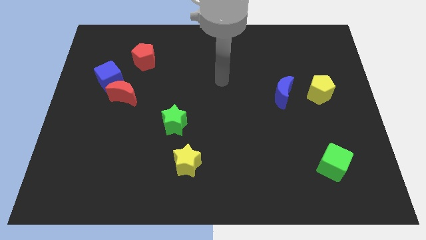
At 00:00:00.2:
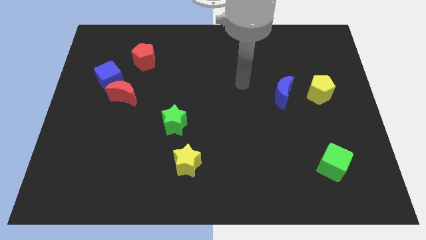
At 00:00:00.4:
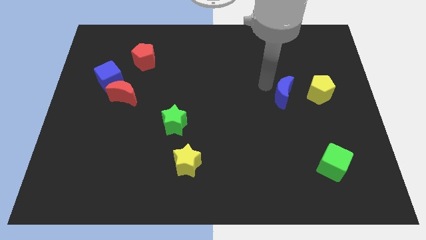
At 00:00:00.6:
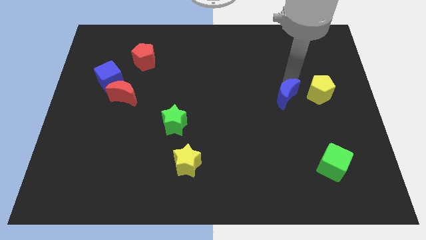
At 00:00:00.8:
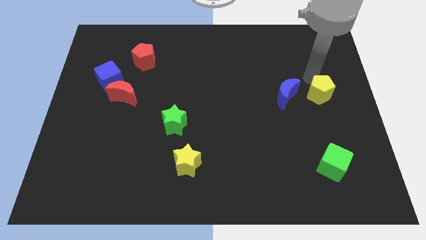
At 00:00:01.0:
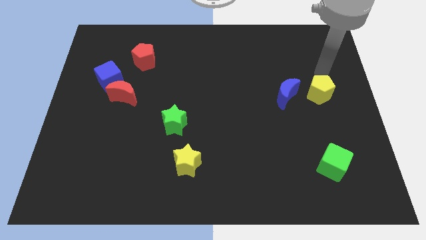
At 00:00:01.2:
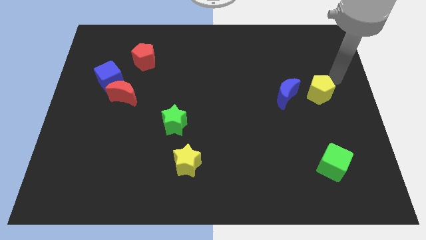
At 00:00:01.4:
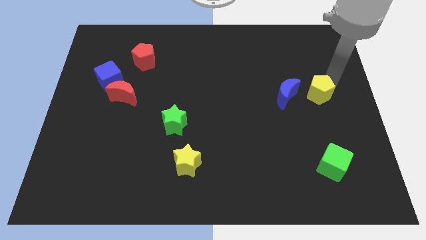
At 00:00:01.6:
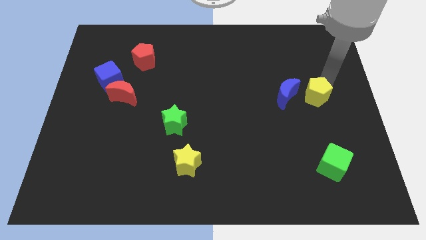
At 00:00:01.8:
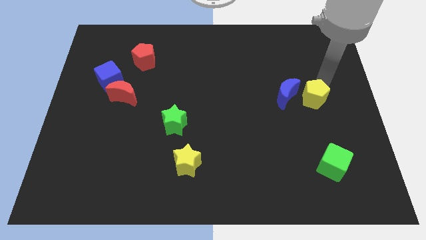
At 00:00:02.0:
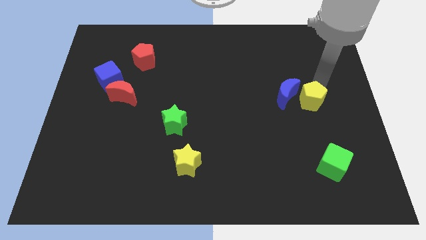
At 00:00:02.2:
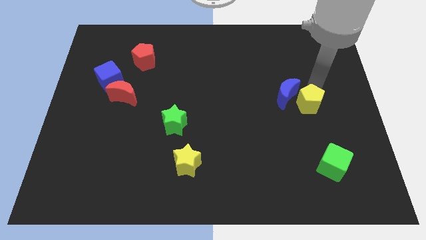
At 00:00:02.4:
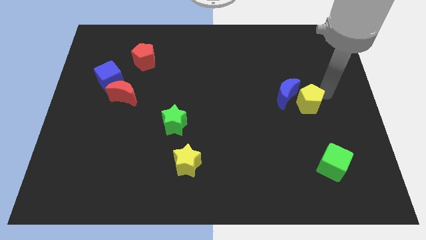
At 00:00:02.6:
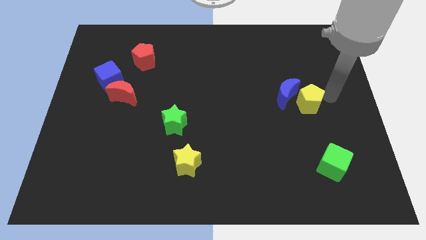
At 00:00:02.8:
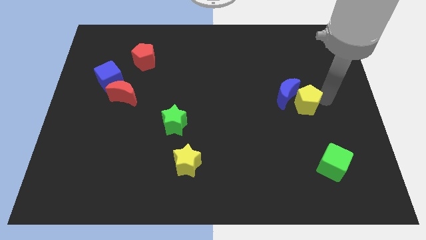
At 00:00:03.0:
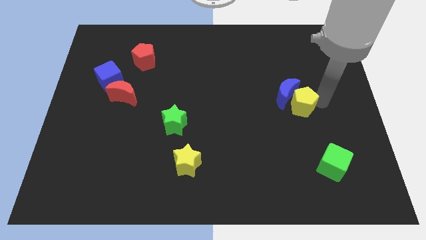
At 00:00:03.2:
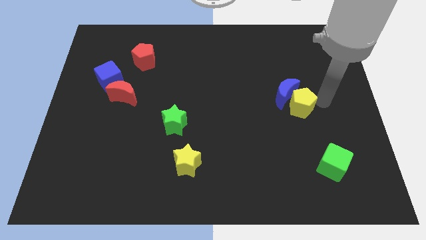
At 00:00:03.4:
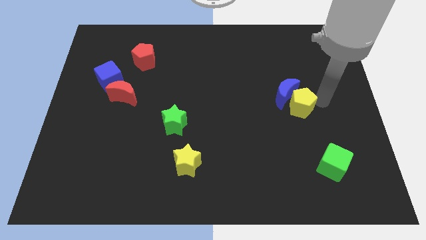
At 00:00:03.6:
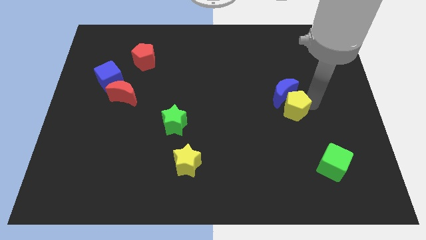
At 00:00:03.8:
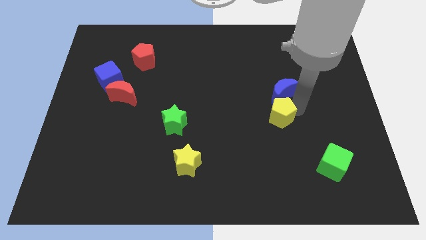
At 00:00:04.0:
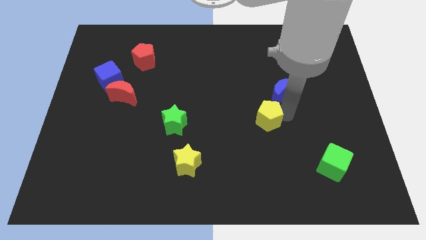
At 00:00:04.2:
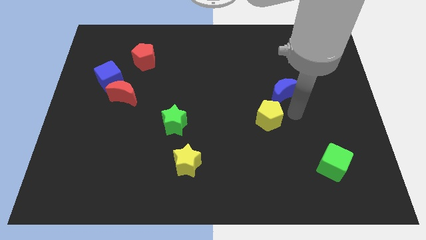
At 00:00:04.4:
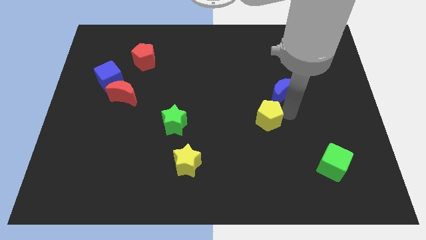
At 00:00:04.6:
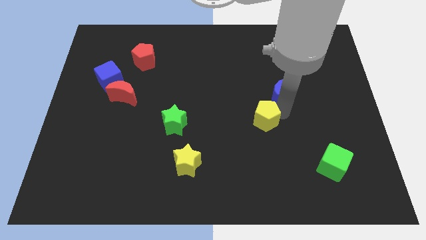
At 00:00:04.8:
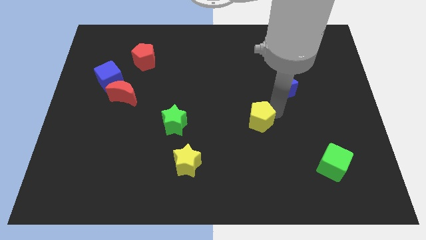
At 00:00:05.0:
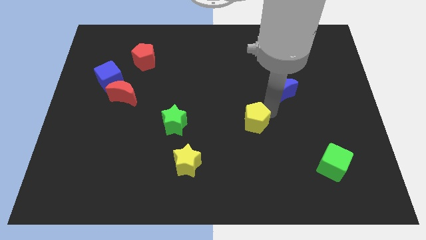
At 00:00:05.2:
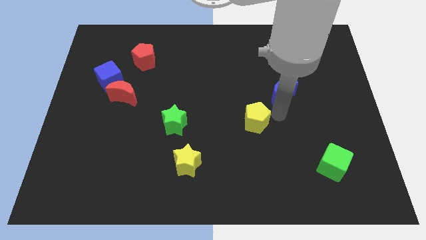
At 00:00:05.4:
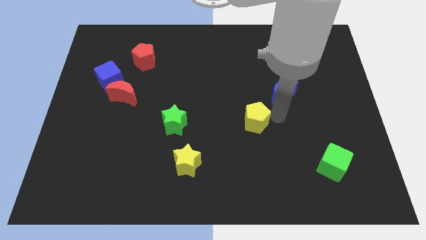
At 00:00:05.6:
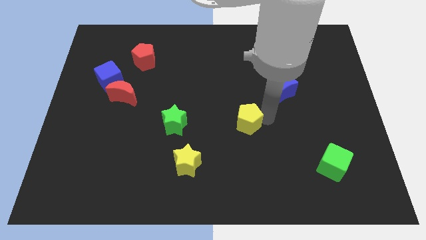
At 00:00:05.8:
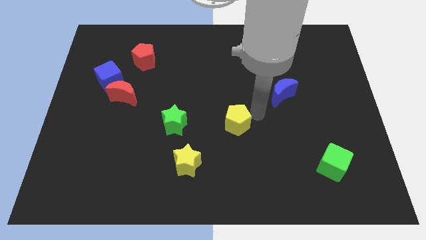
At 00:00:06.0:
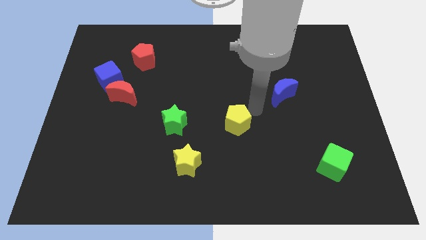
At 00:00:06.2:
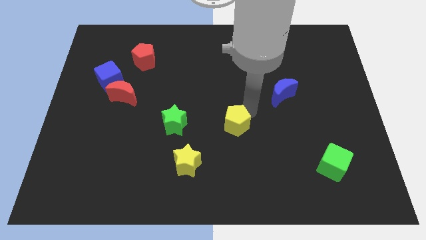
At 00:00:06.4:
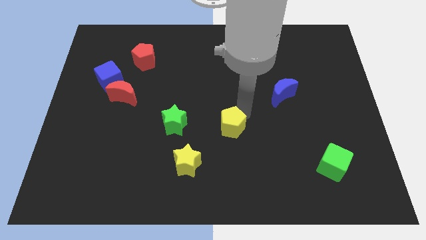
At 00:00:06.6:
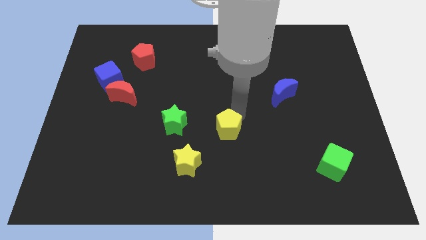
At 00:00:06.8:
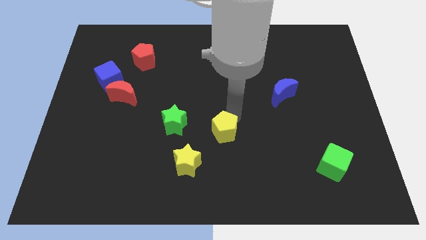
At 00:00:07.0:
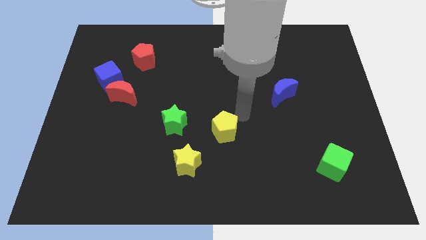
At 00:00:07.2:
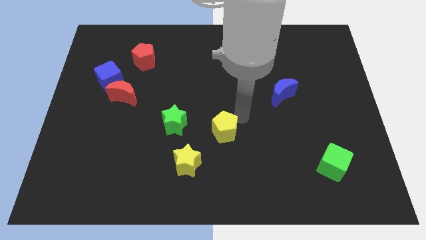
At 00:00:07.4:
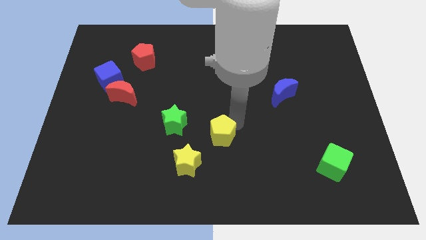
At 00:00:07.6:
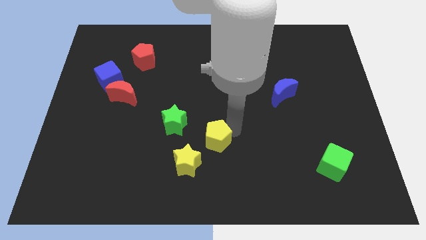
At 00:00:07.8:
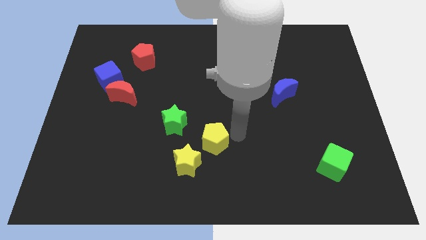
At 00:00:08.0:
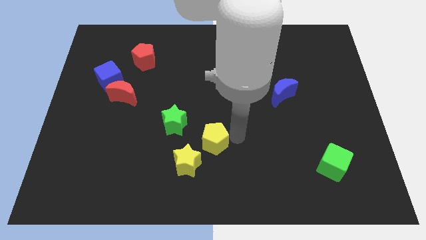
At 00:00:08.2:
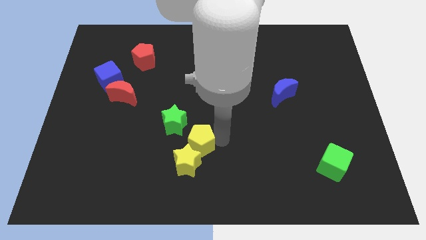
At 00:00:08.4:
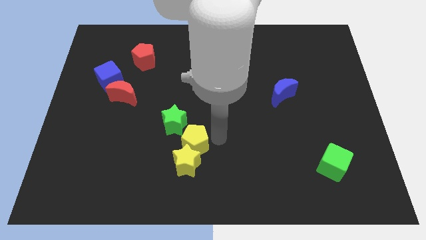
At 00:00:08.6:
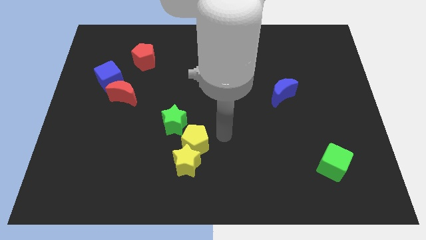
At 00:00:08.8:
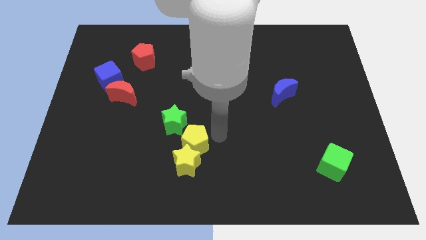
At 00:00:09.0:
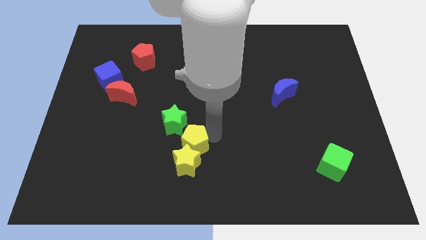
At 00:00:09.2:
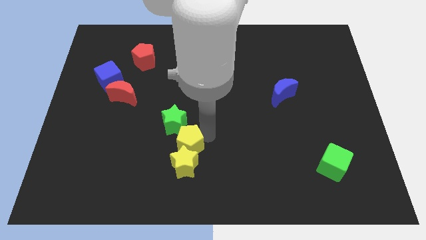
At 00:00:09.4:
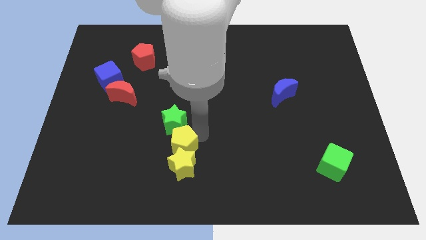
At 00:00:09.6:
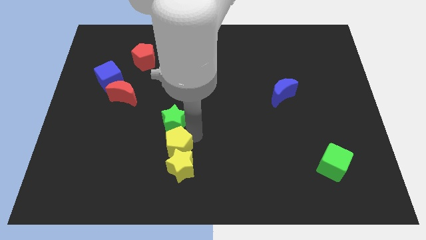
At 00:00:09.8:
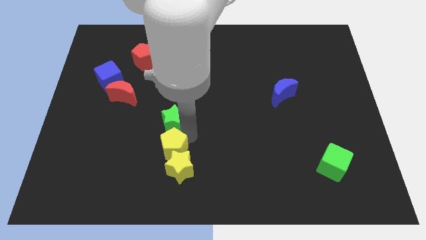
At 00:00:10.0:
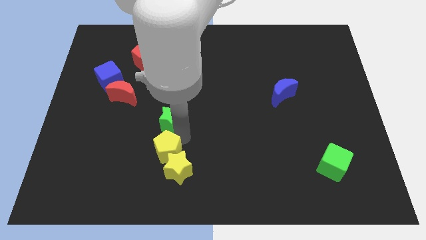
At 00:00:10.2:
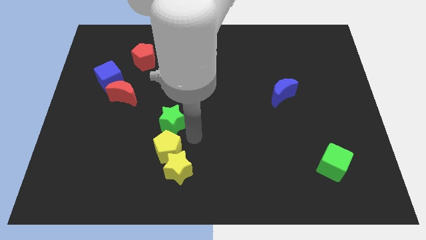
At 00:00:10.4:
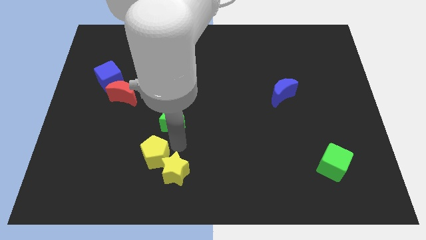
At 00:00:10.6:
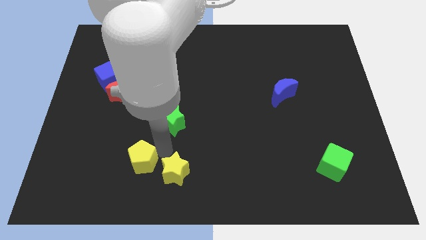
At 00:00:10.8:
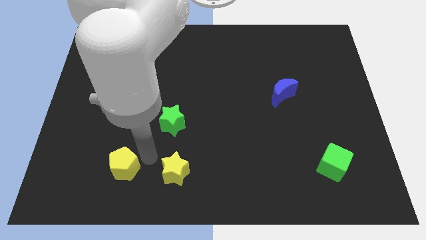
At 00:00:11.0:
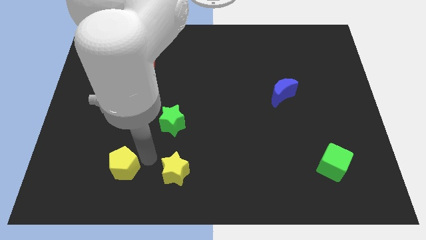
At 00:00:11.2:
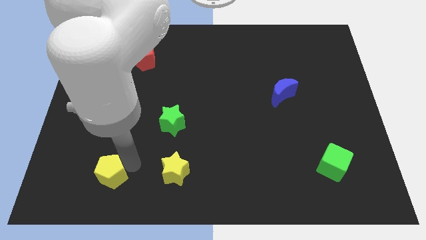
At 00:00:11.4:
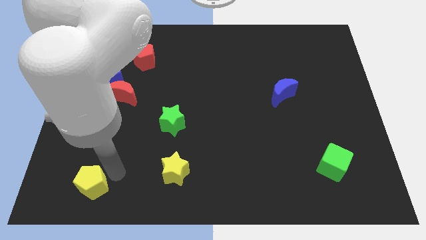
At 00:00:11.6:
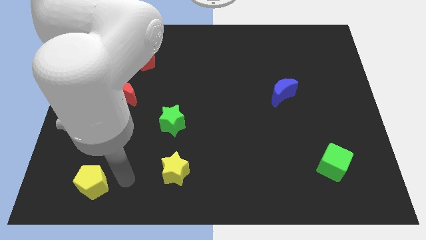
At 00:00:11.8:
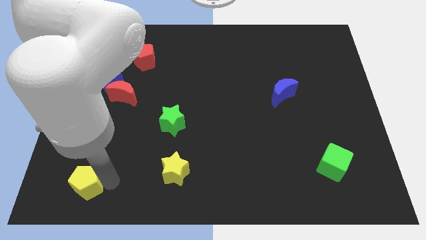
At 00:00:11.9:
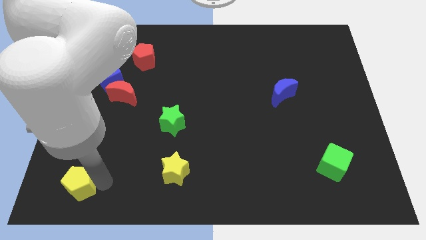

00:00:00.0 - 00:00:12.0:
put the yellow pentagon to the bottom left corner
